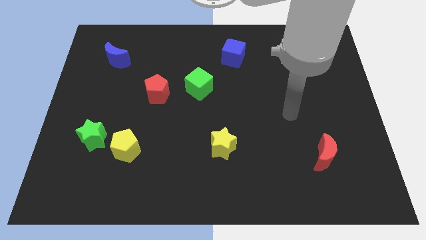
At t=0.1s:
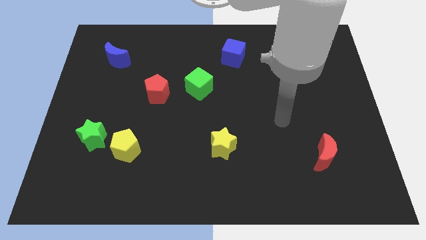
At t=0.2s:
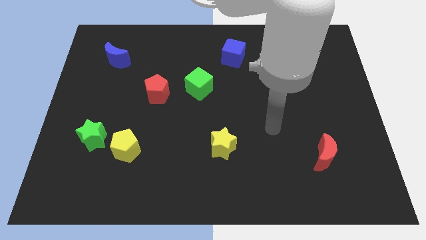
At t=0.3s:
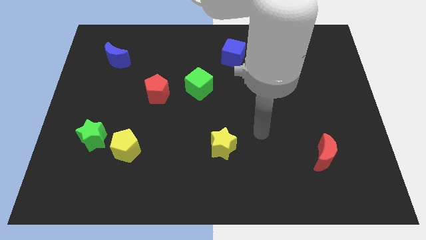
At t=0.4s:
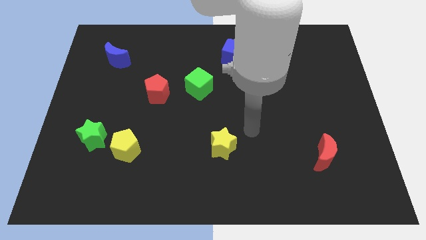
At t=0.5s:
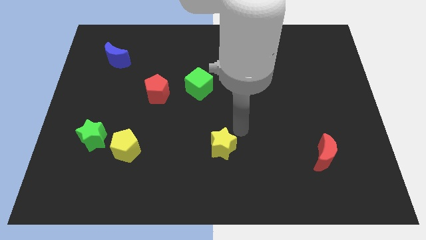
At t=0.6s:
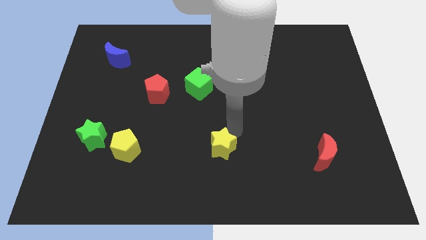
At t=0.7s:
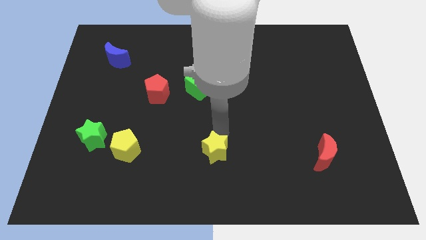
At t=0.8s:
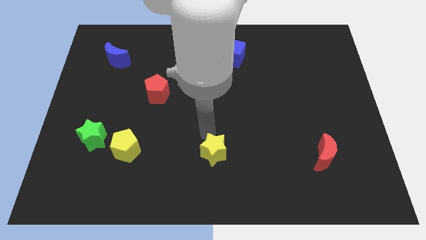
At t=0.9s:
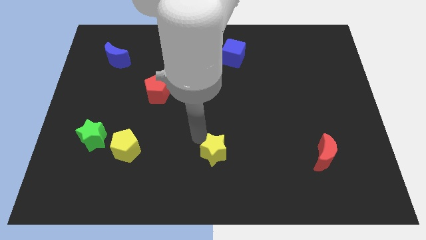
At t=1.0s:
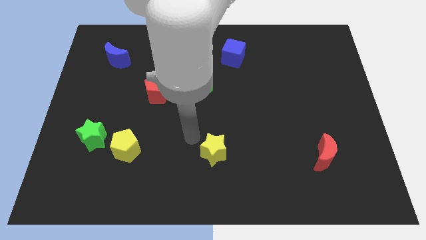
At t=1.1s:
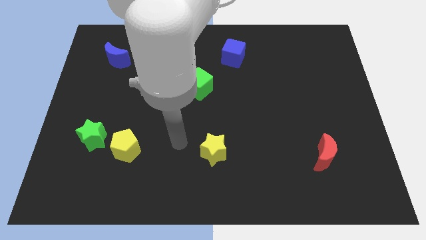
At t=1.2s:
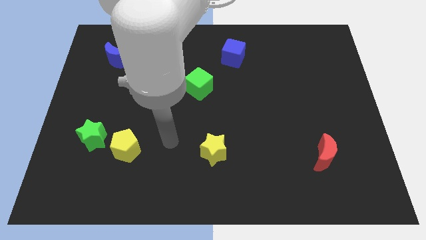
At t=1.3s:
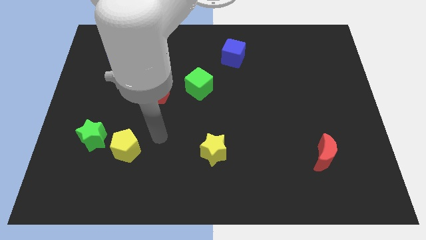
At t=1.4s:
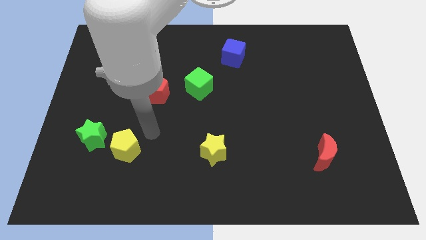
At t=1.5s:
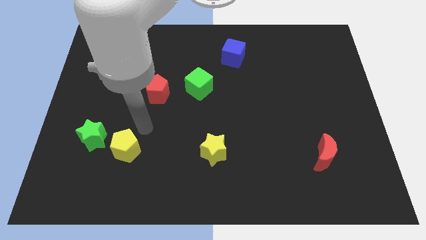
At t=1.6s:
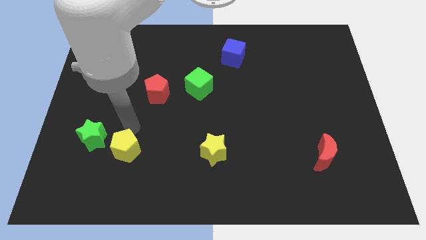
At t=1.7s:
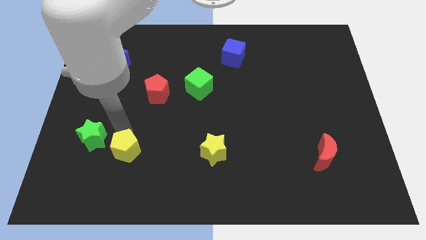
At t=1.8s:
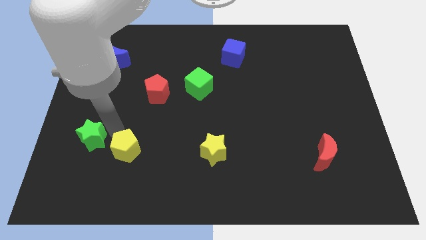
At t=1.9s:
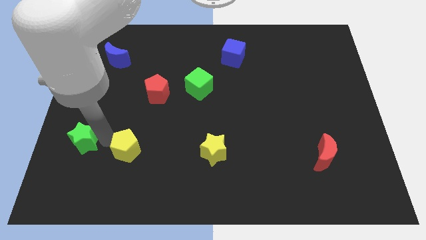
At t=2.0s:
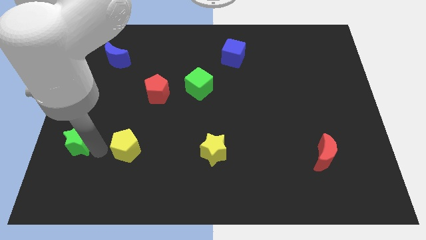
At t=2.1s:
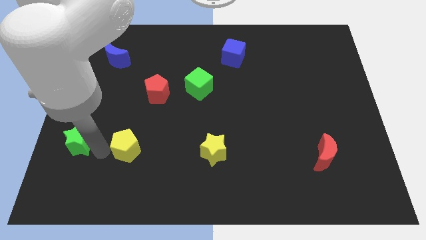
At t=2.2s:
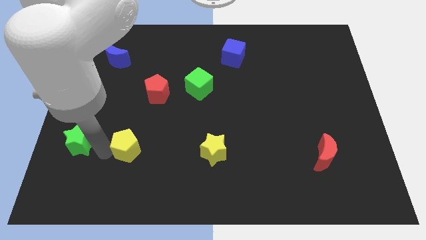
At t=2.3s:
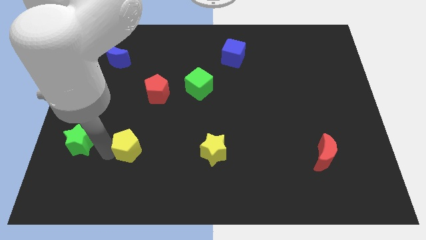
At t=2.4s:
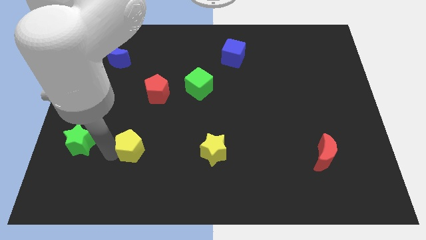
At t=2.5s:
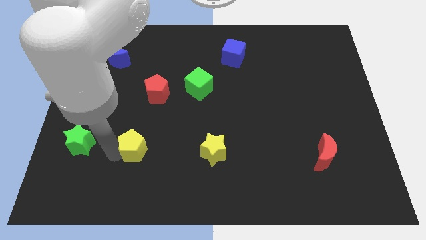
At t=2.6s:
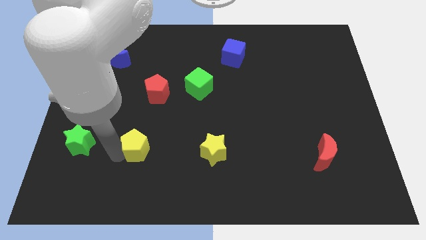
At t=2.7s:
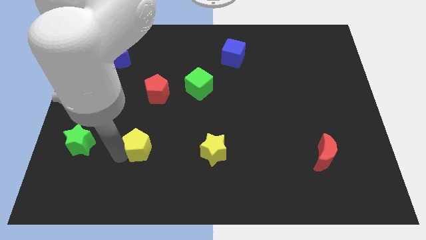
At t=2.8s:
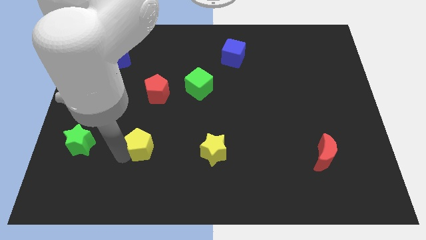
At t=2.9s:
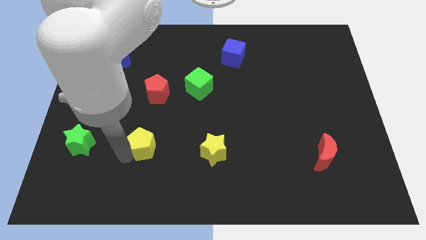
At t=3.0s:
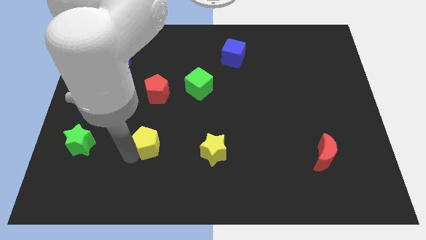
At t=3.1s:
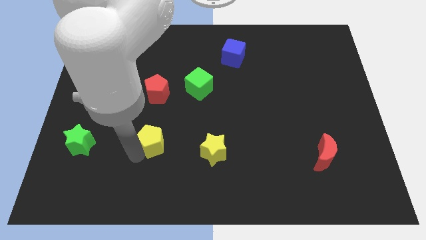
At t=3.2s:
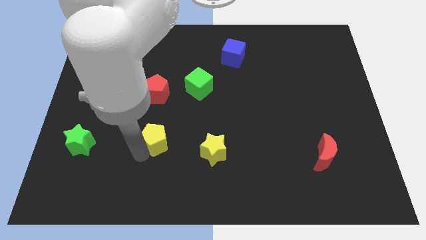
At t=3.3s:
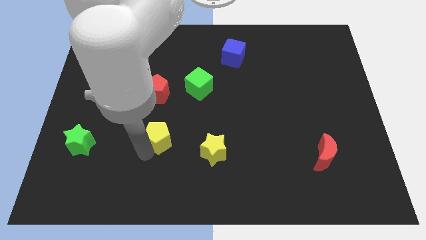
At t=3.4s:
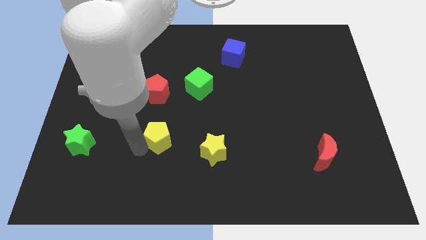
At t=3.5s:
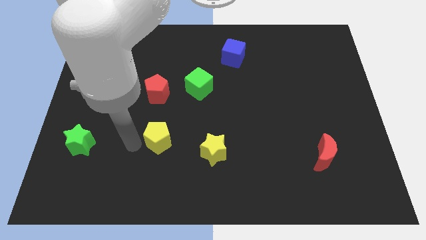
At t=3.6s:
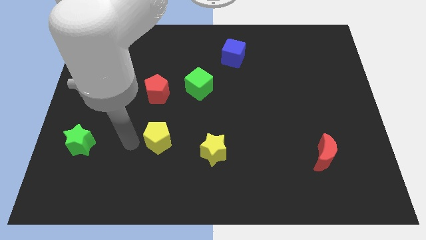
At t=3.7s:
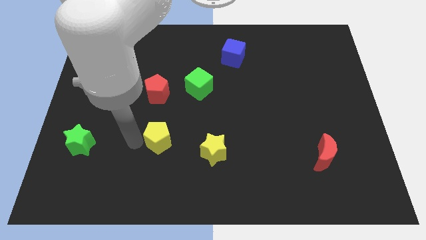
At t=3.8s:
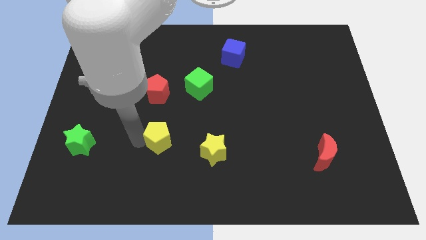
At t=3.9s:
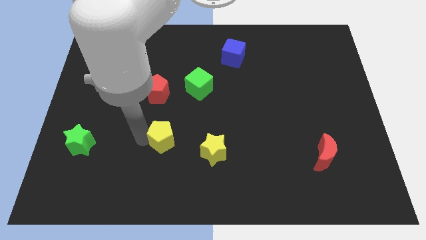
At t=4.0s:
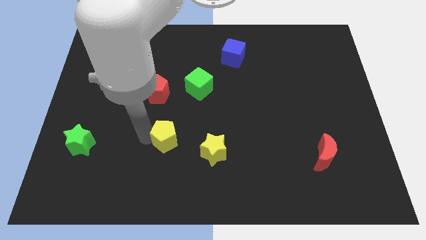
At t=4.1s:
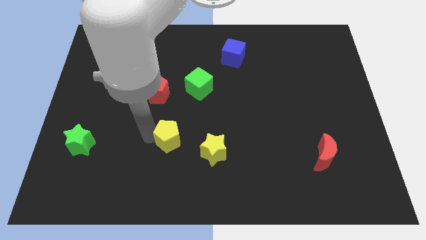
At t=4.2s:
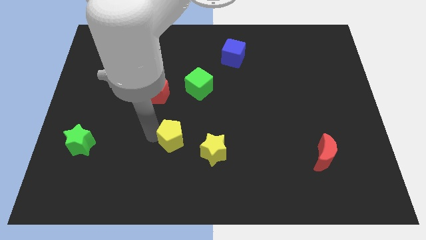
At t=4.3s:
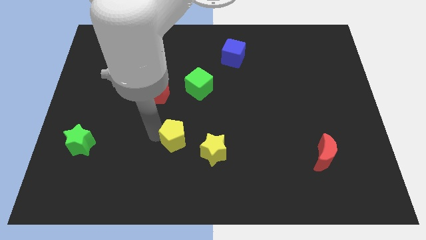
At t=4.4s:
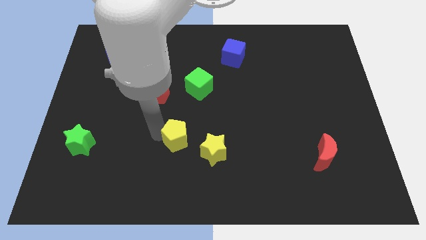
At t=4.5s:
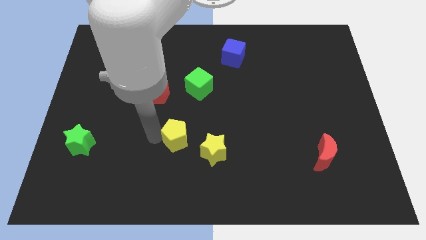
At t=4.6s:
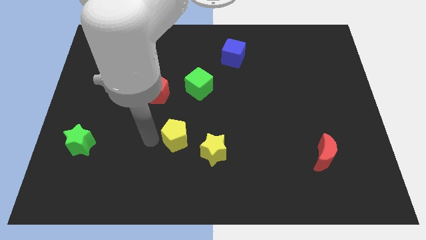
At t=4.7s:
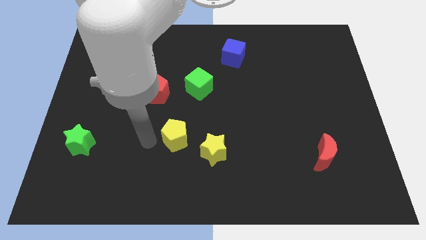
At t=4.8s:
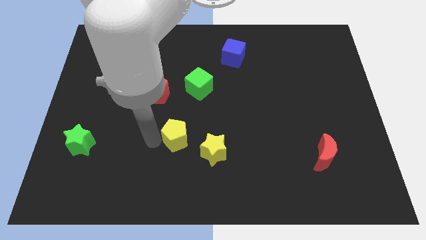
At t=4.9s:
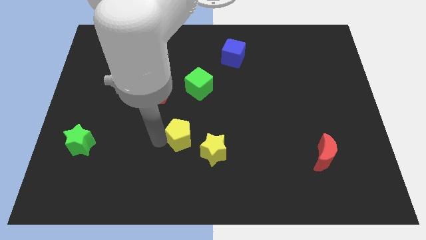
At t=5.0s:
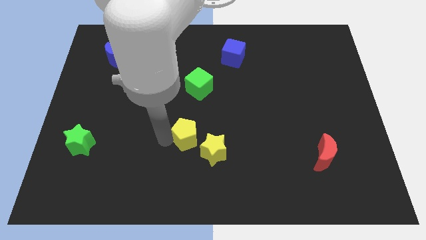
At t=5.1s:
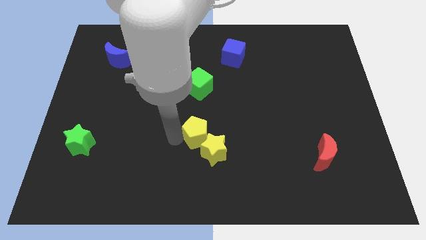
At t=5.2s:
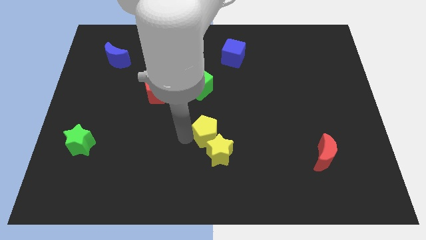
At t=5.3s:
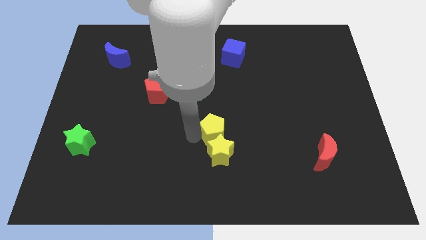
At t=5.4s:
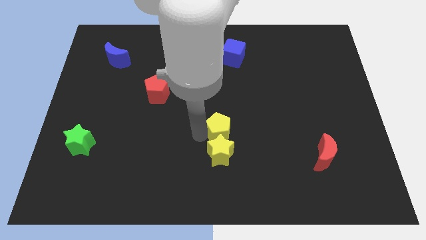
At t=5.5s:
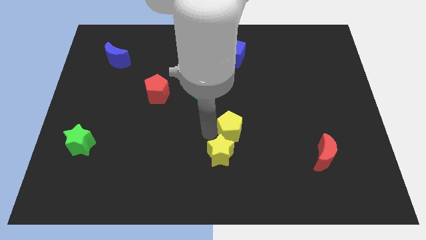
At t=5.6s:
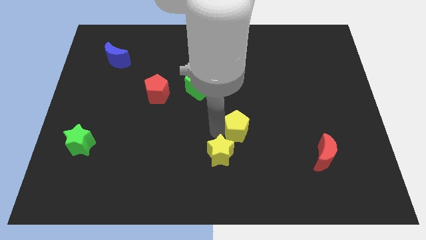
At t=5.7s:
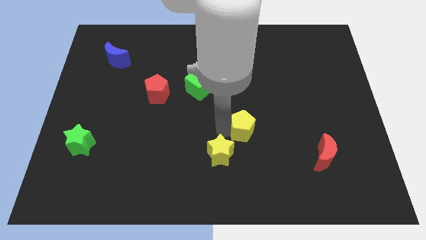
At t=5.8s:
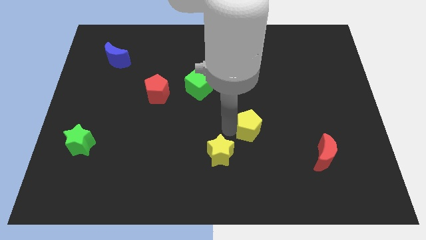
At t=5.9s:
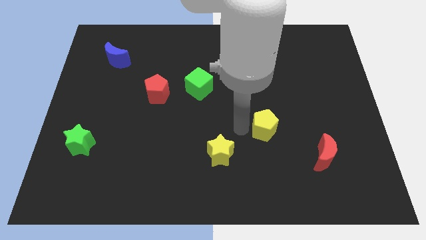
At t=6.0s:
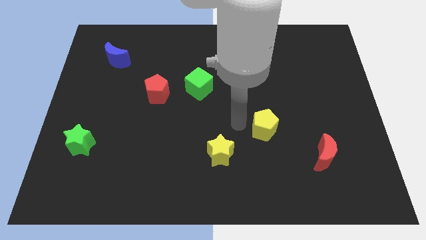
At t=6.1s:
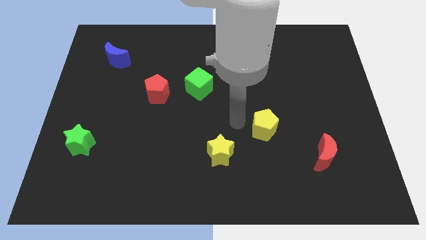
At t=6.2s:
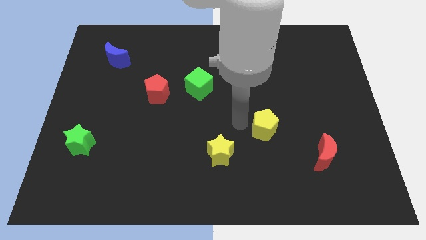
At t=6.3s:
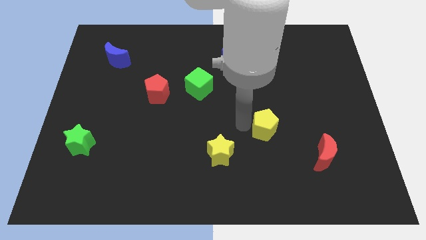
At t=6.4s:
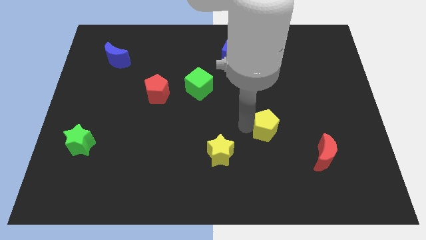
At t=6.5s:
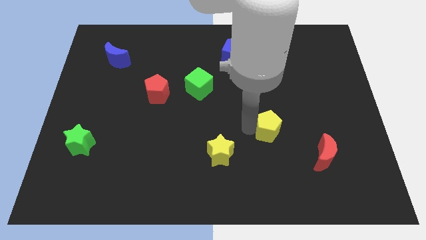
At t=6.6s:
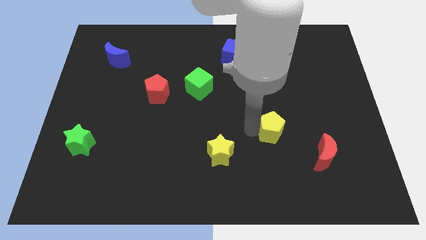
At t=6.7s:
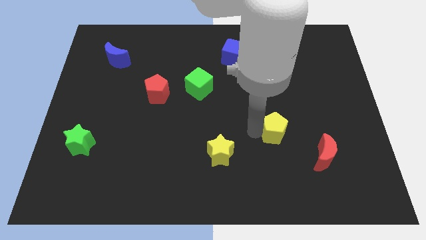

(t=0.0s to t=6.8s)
put the yellow pentagon to the top left side of the red moon
